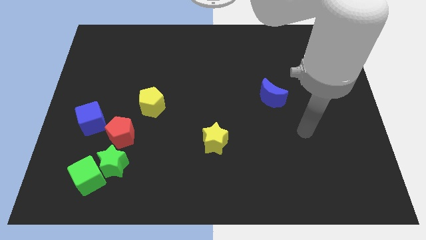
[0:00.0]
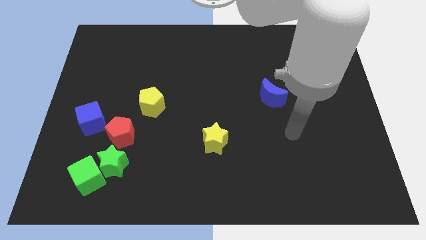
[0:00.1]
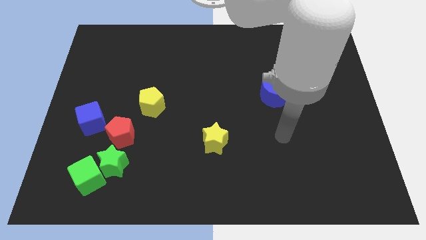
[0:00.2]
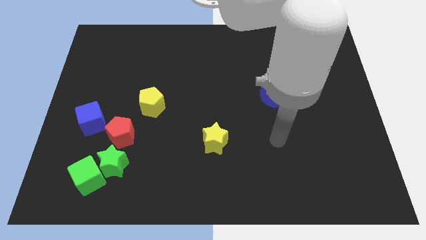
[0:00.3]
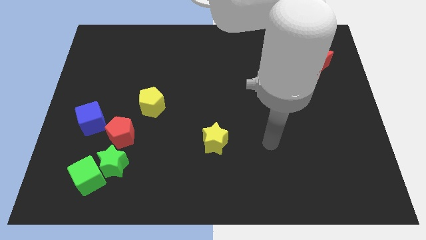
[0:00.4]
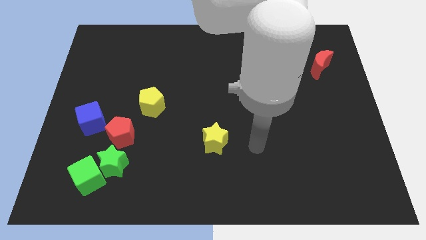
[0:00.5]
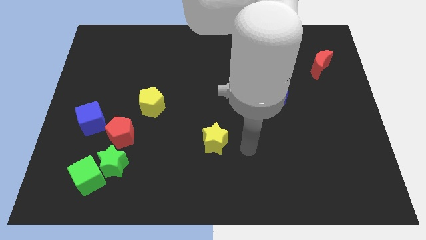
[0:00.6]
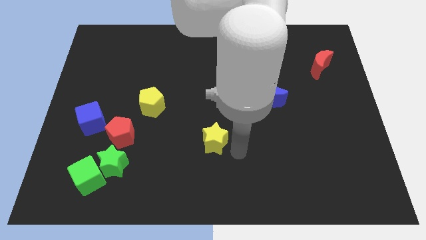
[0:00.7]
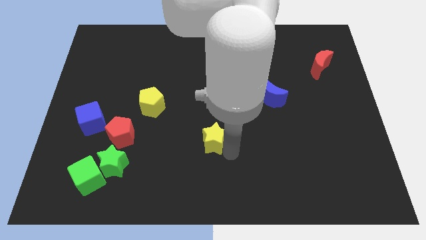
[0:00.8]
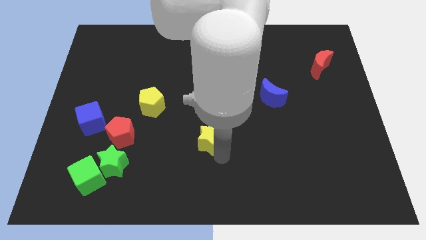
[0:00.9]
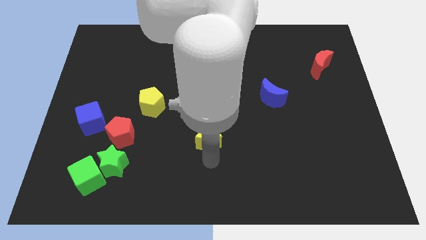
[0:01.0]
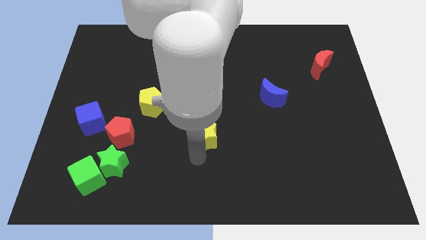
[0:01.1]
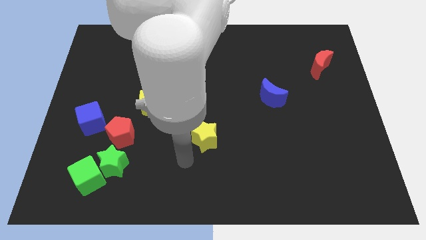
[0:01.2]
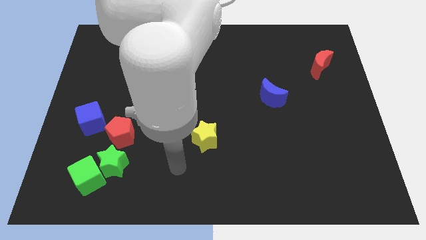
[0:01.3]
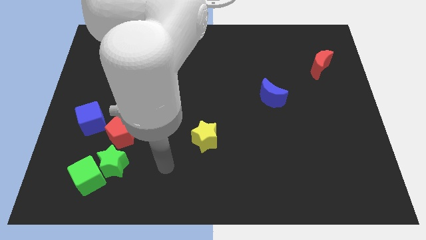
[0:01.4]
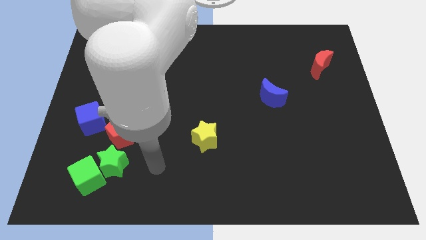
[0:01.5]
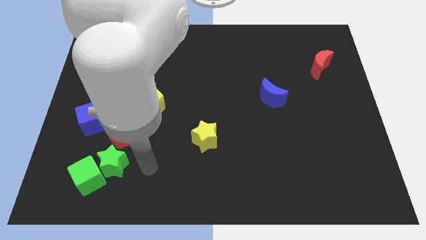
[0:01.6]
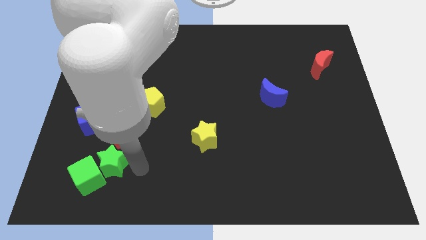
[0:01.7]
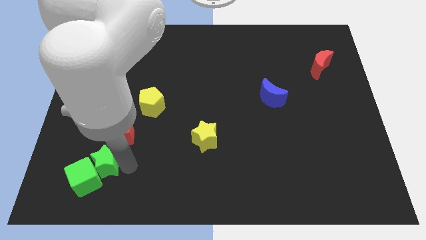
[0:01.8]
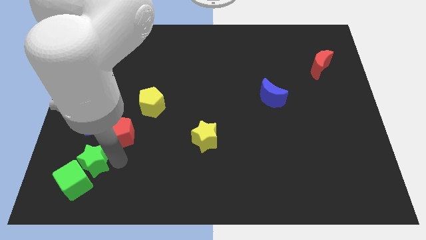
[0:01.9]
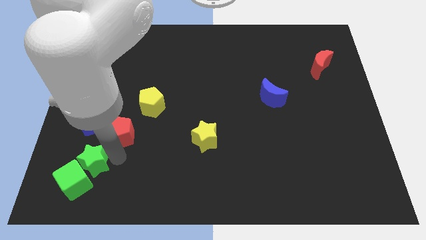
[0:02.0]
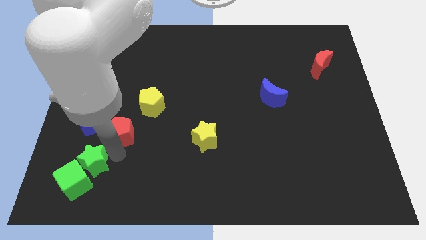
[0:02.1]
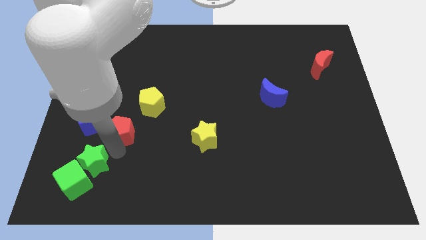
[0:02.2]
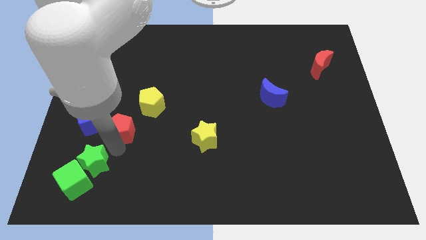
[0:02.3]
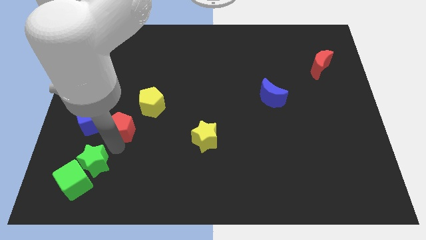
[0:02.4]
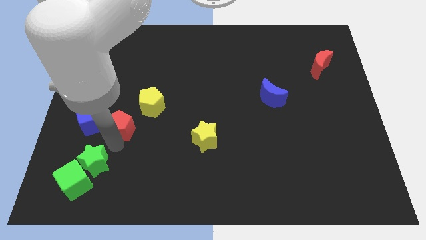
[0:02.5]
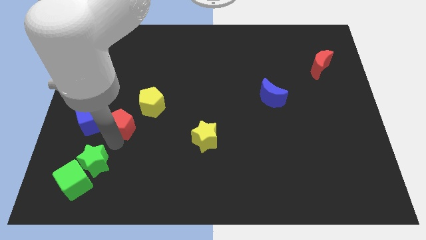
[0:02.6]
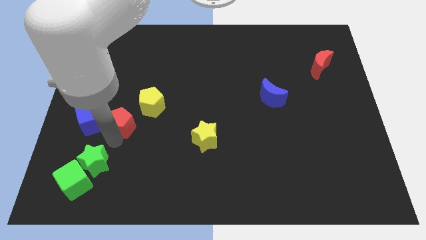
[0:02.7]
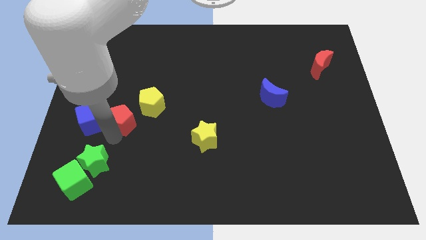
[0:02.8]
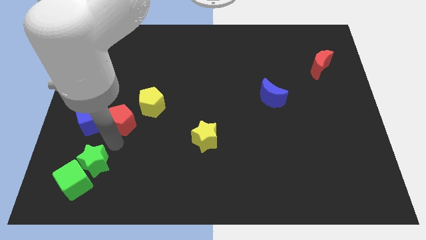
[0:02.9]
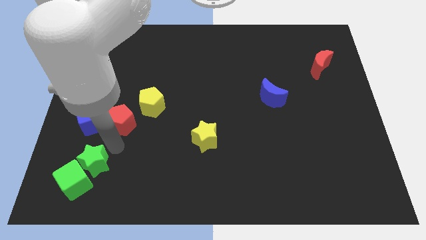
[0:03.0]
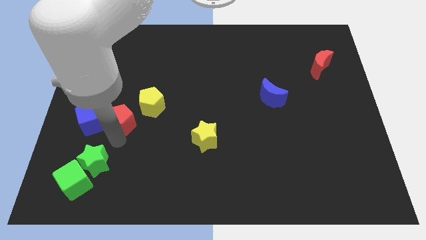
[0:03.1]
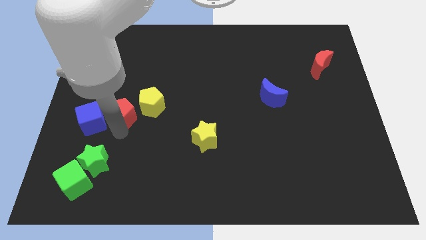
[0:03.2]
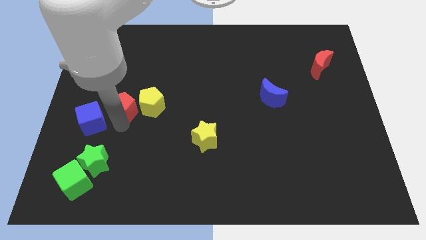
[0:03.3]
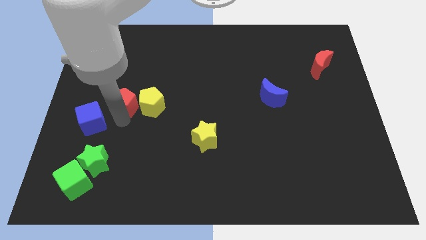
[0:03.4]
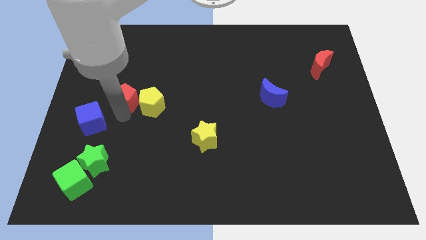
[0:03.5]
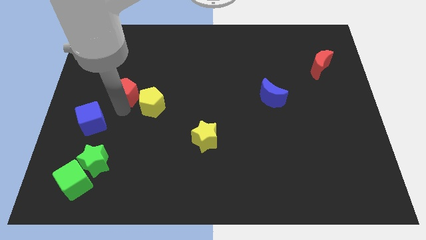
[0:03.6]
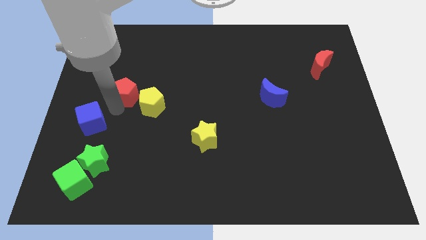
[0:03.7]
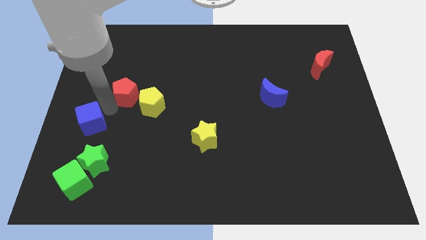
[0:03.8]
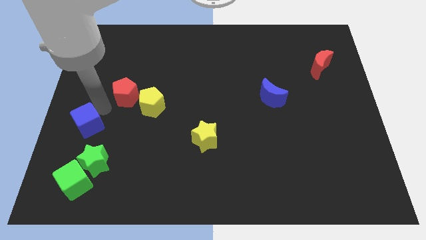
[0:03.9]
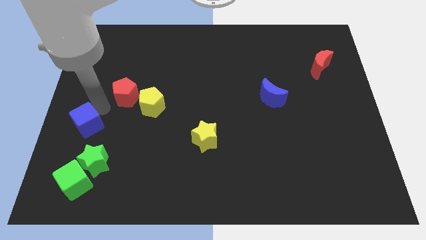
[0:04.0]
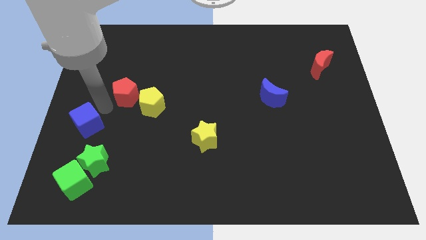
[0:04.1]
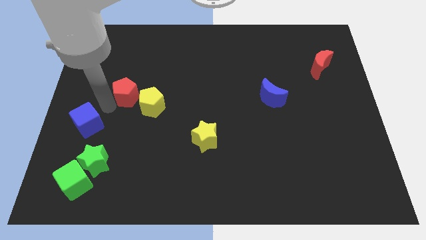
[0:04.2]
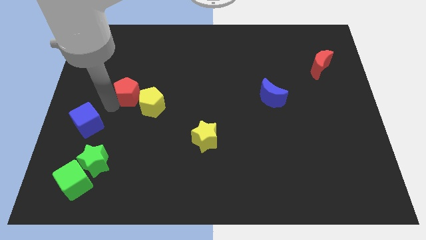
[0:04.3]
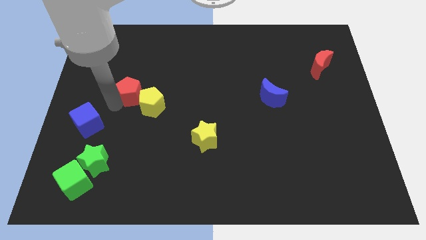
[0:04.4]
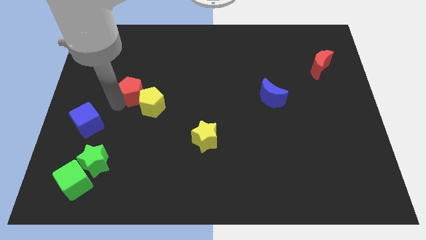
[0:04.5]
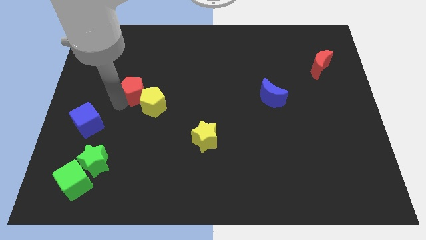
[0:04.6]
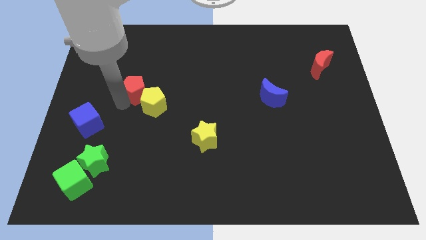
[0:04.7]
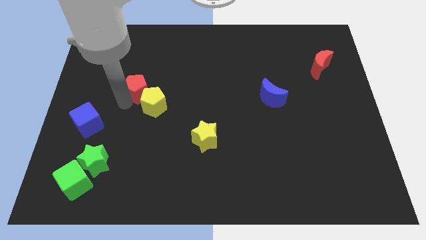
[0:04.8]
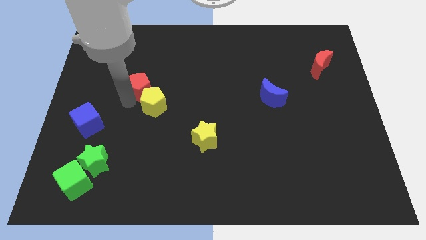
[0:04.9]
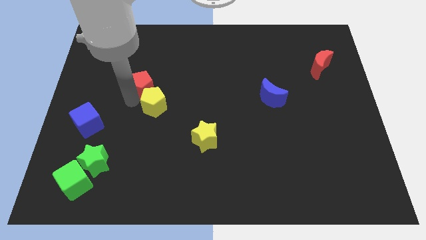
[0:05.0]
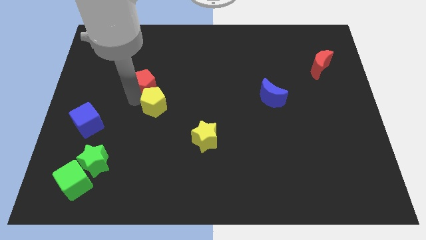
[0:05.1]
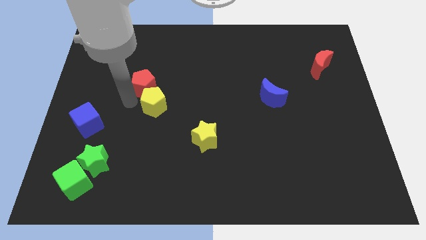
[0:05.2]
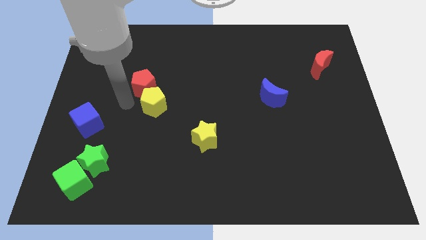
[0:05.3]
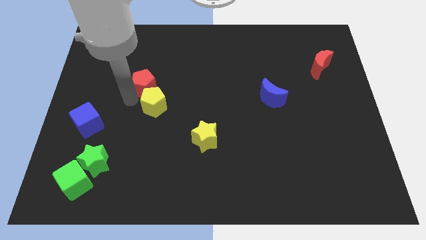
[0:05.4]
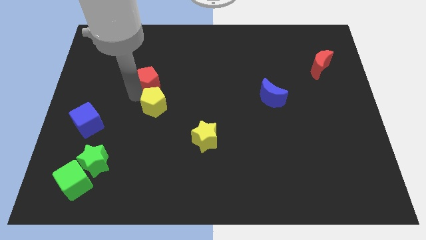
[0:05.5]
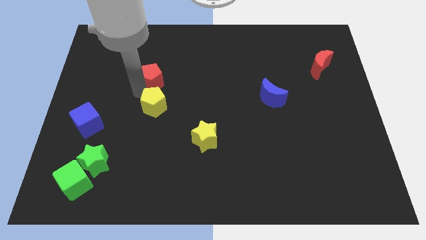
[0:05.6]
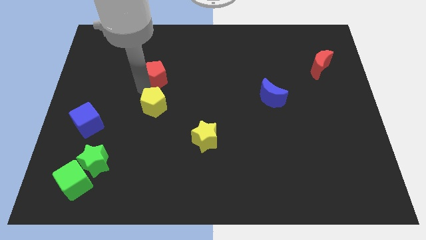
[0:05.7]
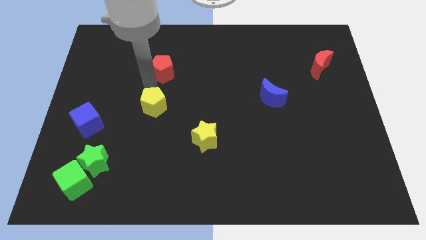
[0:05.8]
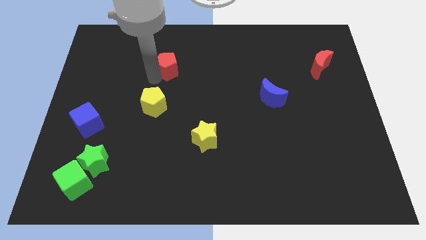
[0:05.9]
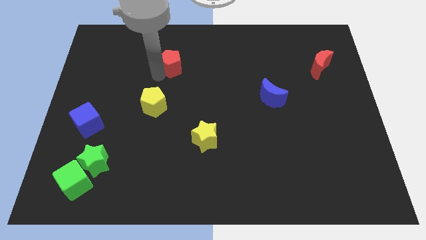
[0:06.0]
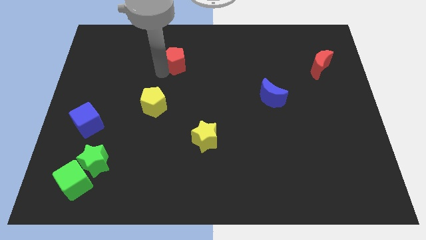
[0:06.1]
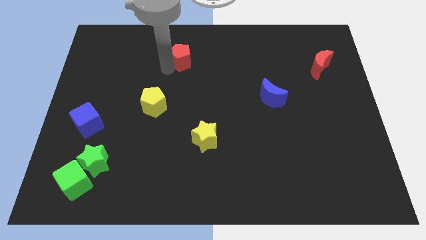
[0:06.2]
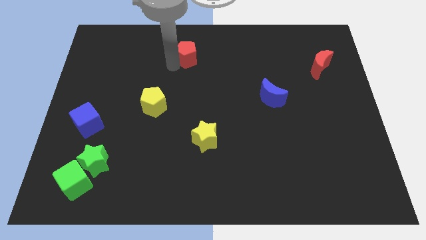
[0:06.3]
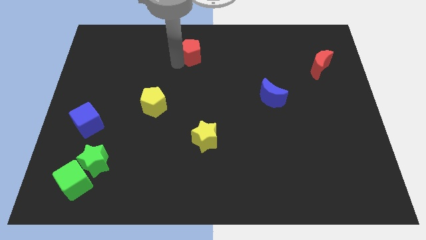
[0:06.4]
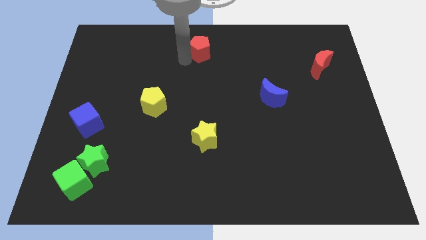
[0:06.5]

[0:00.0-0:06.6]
push the red pentagon to the towards your base

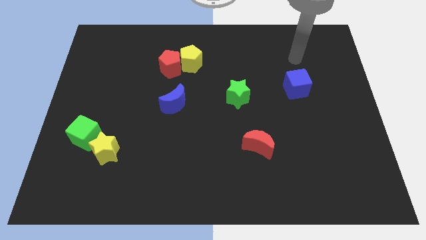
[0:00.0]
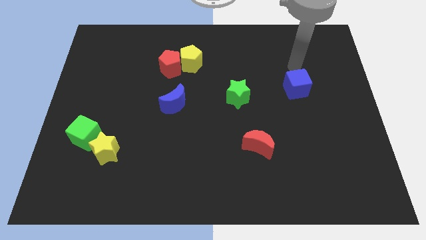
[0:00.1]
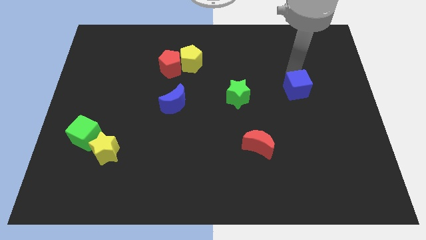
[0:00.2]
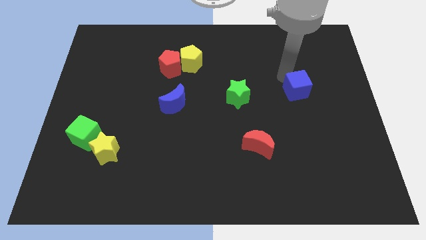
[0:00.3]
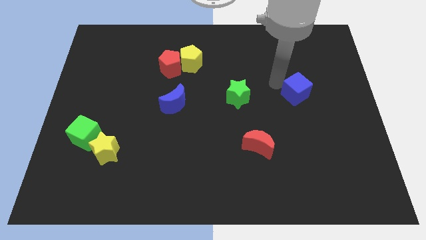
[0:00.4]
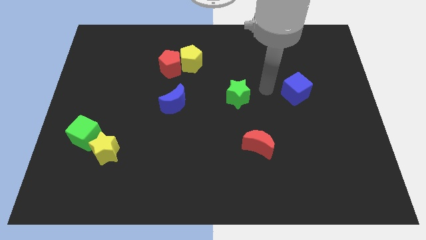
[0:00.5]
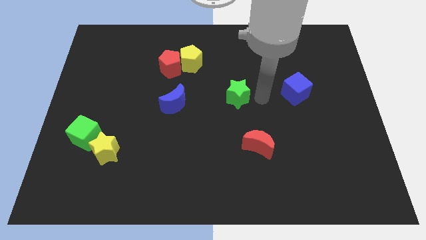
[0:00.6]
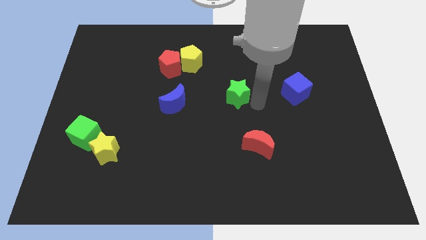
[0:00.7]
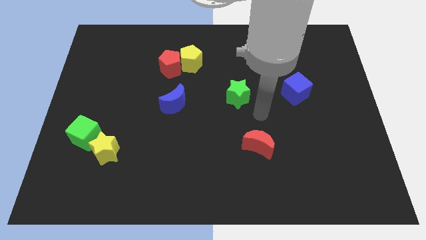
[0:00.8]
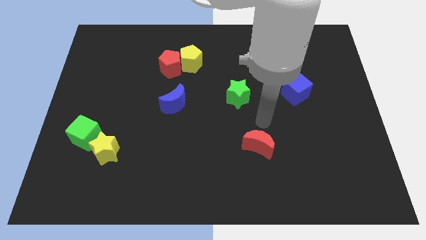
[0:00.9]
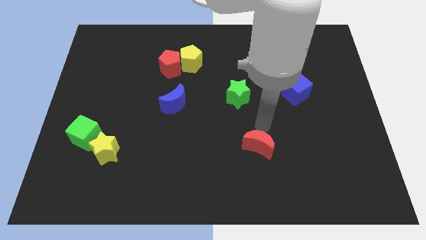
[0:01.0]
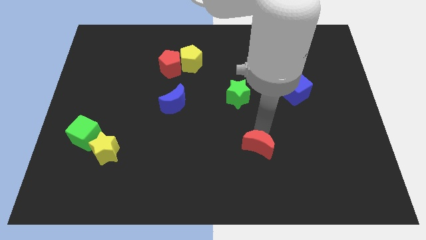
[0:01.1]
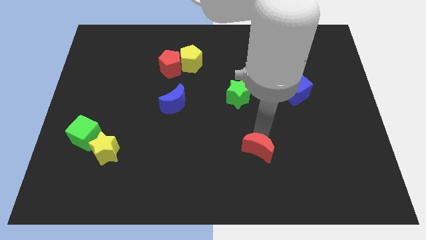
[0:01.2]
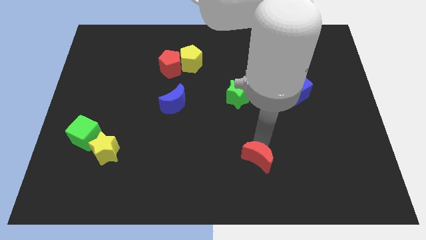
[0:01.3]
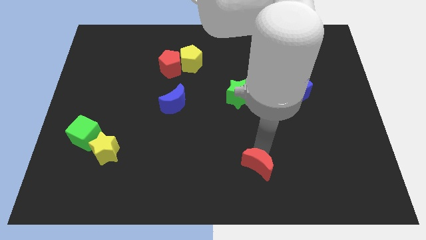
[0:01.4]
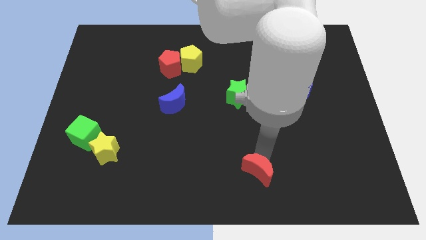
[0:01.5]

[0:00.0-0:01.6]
move the red moon to the bottom
